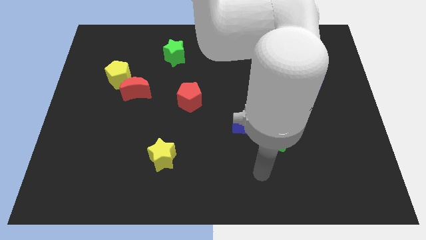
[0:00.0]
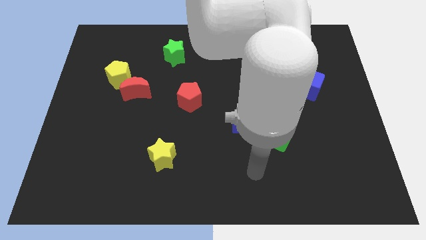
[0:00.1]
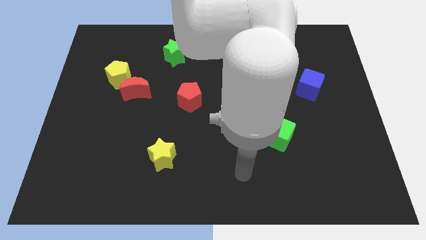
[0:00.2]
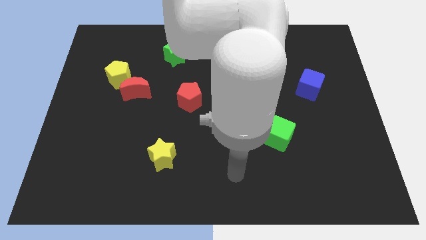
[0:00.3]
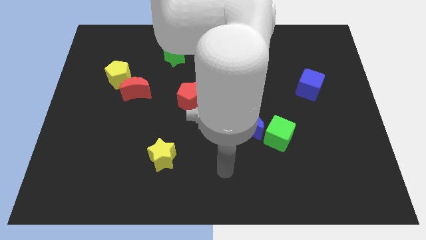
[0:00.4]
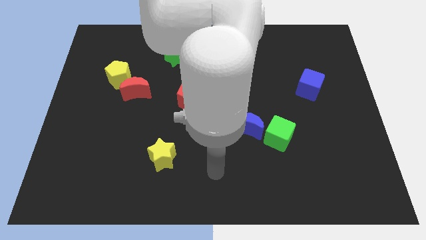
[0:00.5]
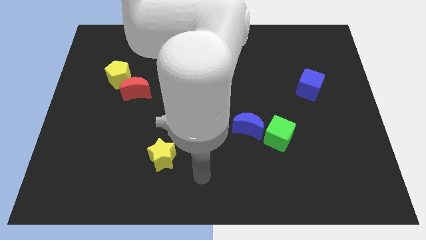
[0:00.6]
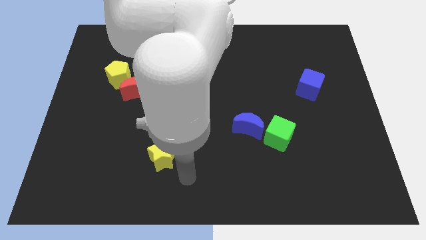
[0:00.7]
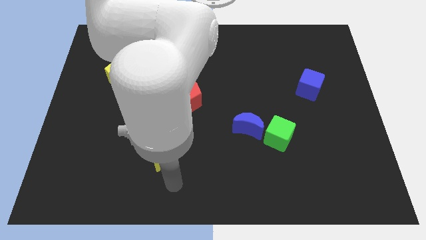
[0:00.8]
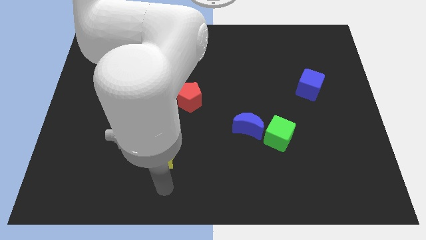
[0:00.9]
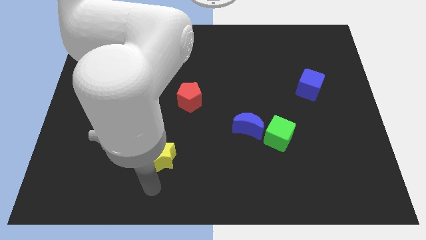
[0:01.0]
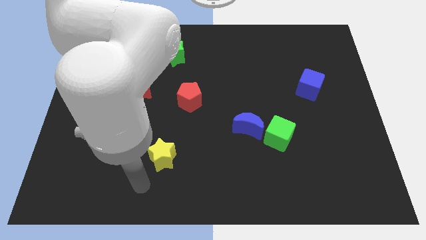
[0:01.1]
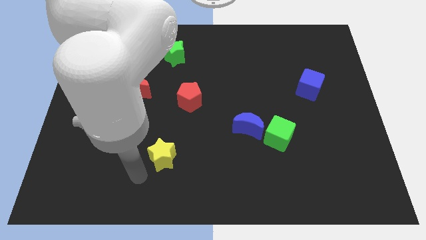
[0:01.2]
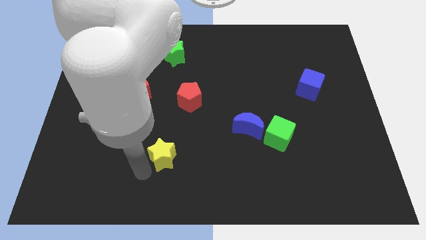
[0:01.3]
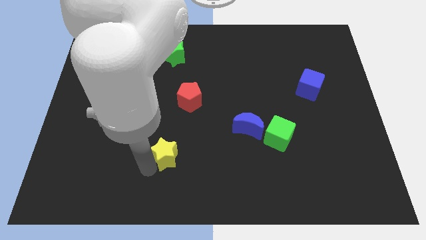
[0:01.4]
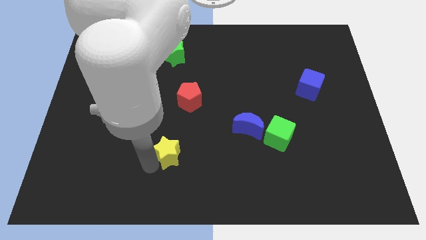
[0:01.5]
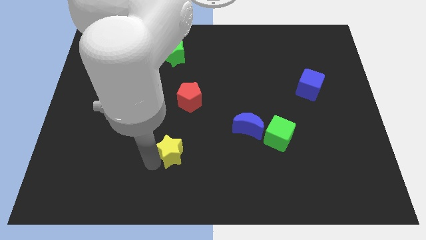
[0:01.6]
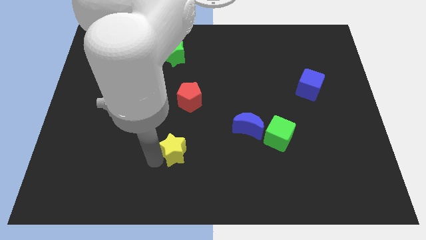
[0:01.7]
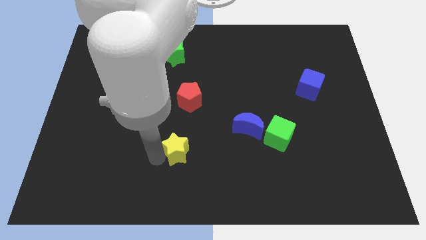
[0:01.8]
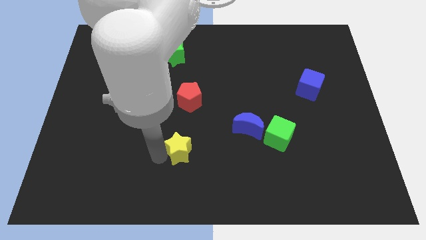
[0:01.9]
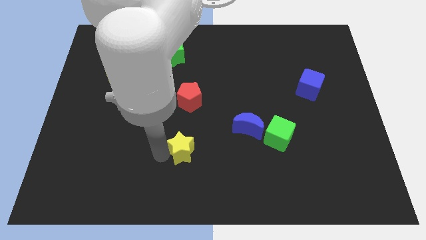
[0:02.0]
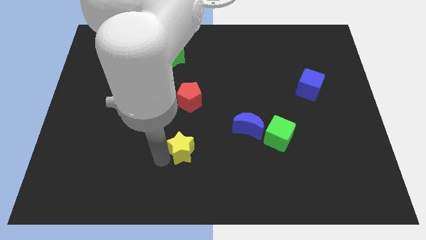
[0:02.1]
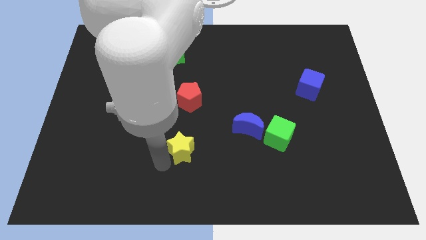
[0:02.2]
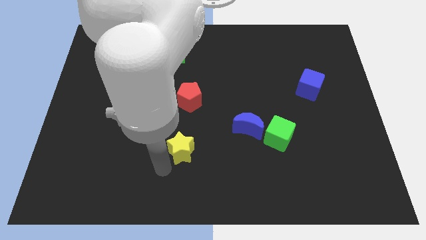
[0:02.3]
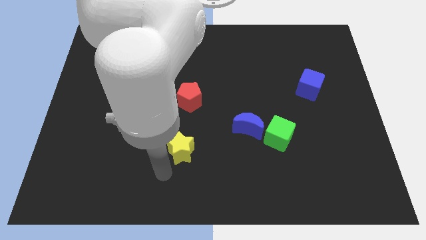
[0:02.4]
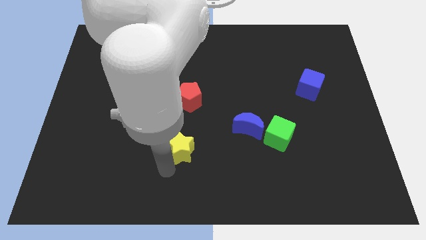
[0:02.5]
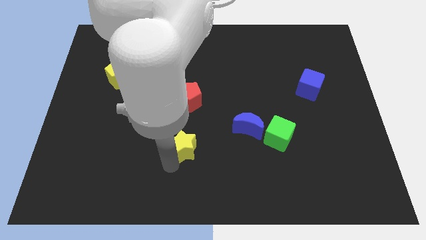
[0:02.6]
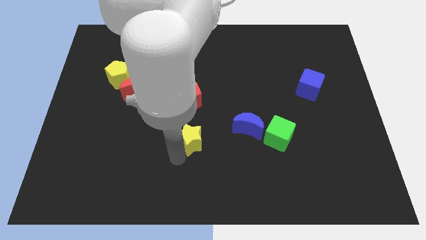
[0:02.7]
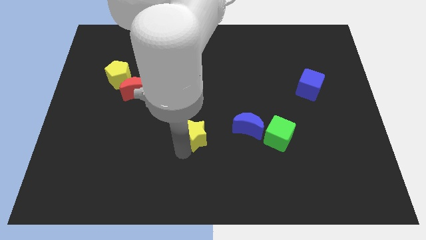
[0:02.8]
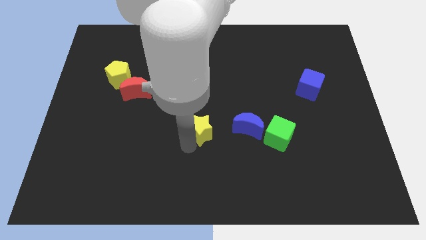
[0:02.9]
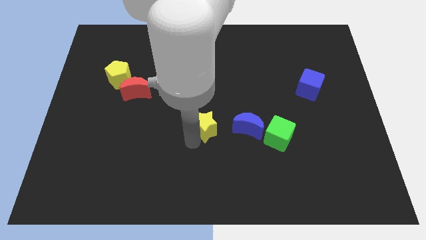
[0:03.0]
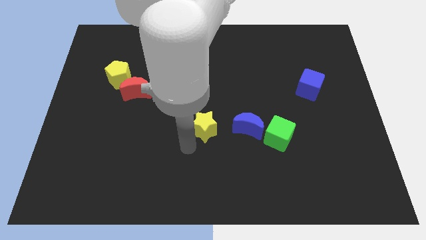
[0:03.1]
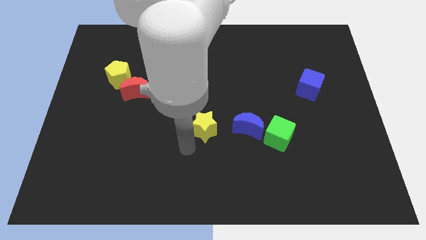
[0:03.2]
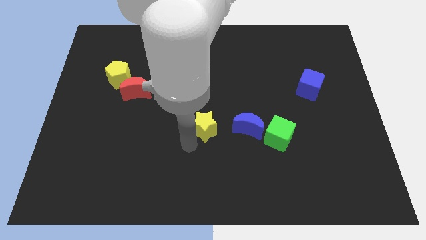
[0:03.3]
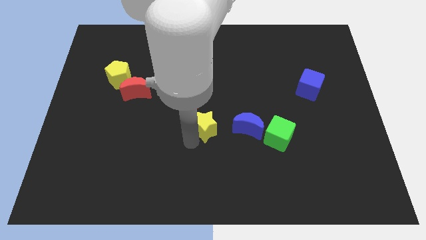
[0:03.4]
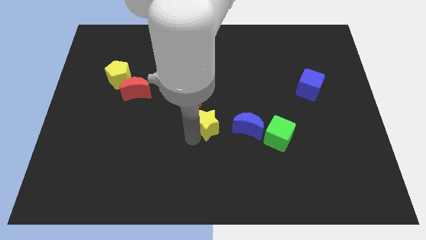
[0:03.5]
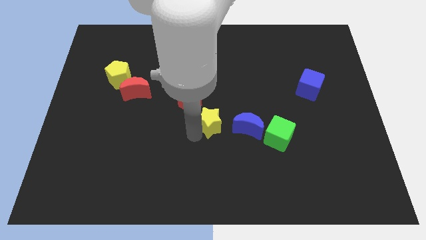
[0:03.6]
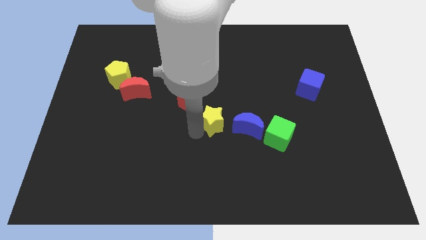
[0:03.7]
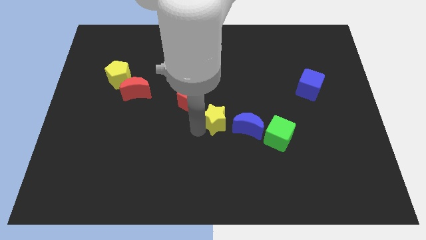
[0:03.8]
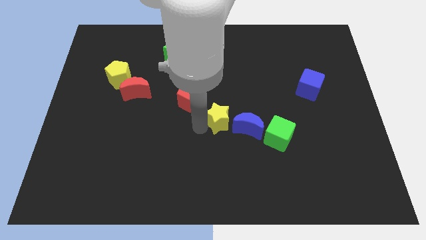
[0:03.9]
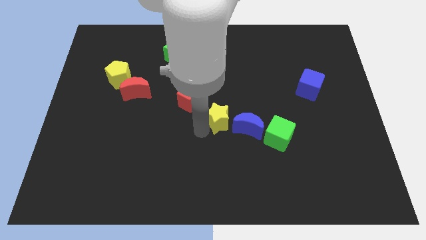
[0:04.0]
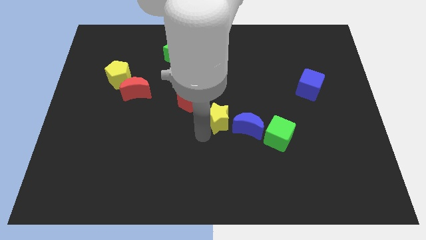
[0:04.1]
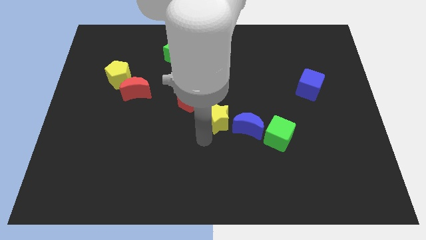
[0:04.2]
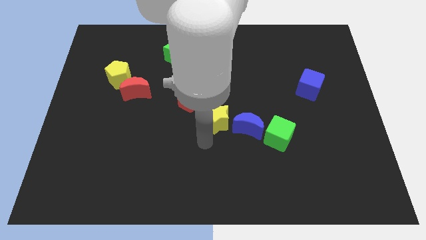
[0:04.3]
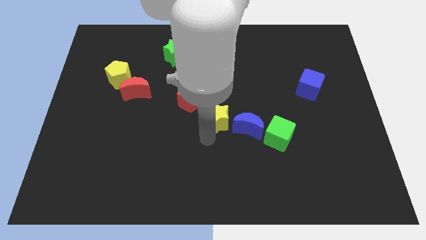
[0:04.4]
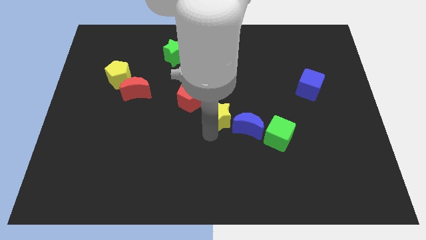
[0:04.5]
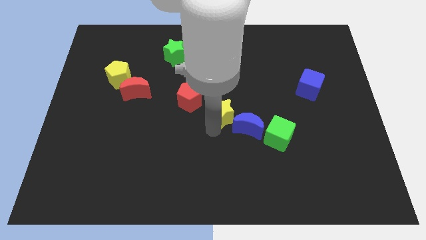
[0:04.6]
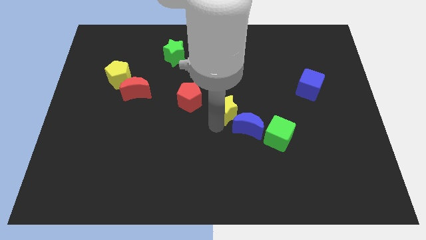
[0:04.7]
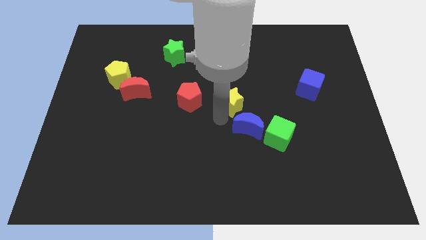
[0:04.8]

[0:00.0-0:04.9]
move the yellow star up and then to the right

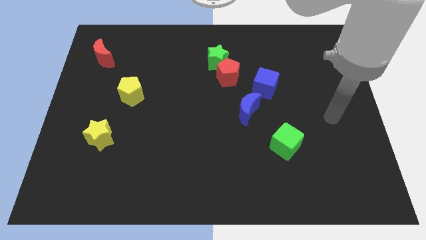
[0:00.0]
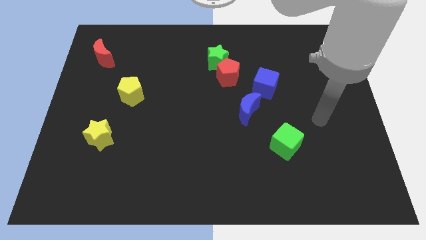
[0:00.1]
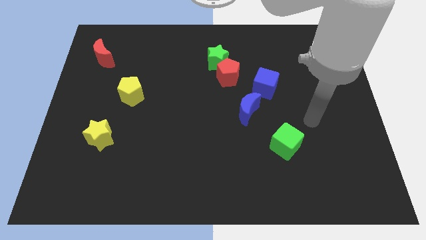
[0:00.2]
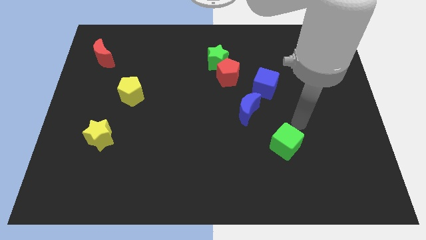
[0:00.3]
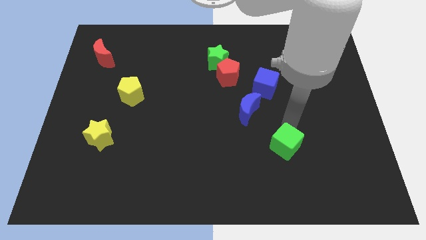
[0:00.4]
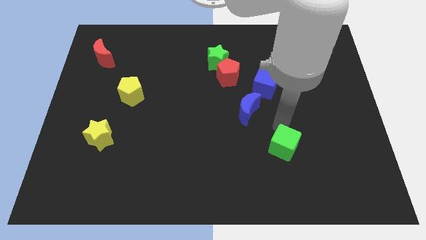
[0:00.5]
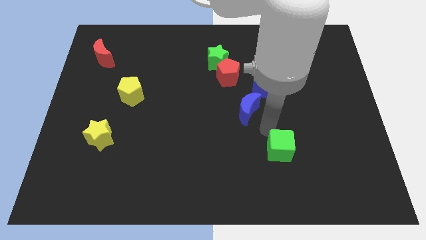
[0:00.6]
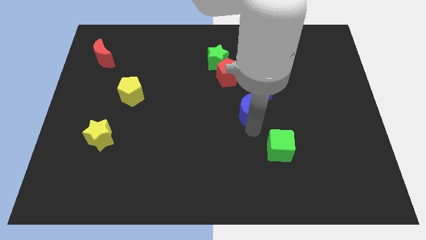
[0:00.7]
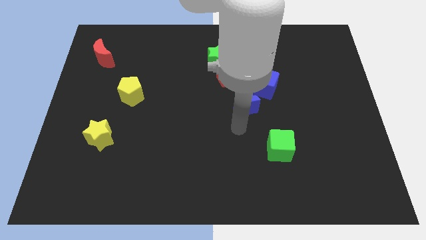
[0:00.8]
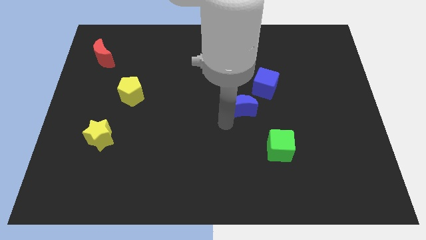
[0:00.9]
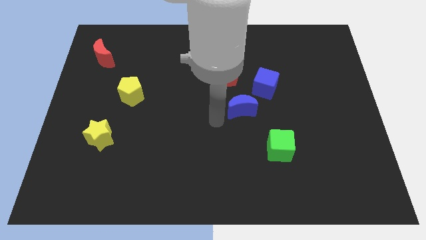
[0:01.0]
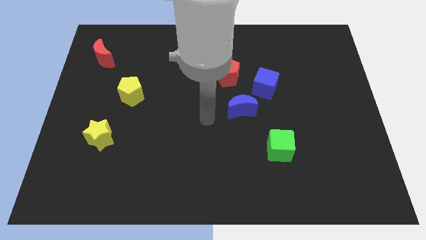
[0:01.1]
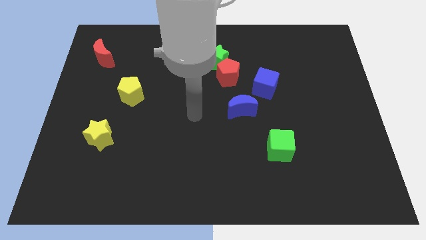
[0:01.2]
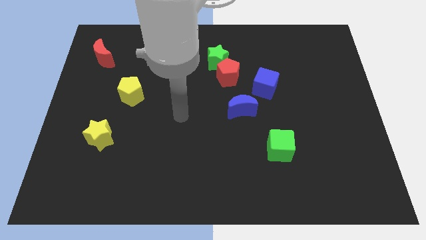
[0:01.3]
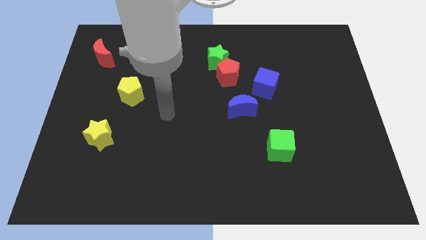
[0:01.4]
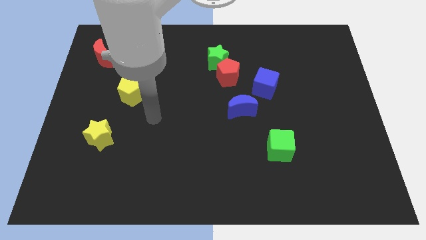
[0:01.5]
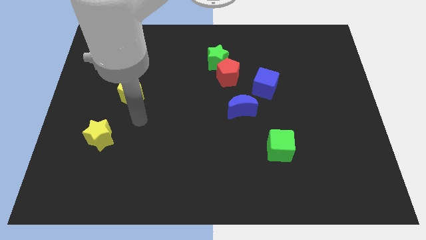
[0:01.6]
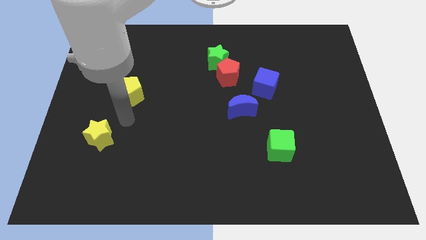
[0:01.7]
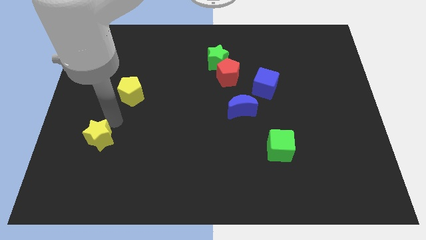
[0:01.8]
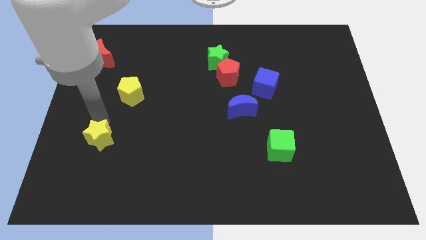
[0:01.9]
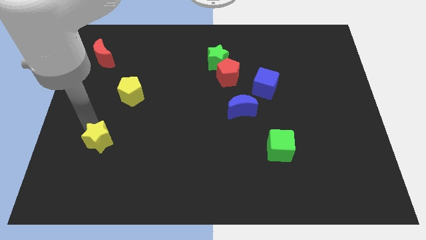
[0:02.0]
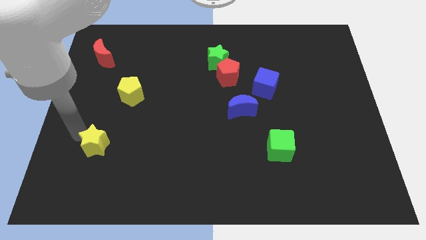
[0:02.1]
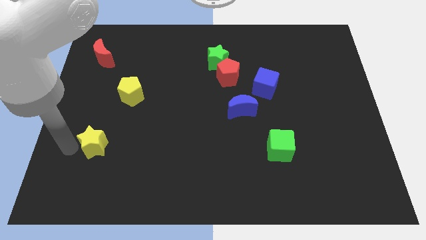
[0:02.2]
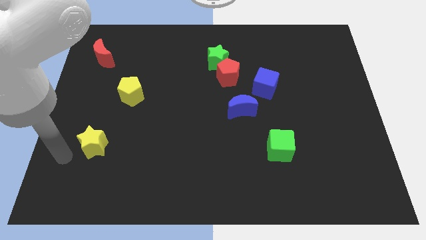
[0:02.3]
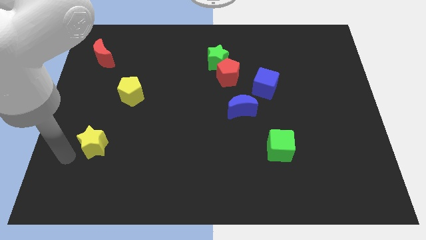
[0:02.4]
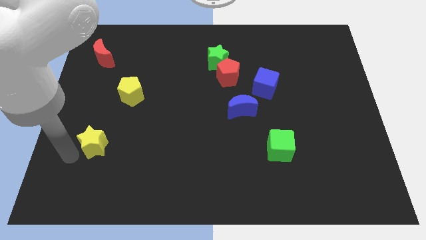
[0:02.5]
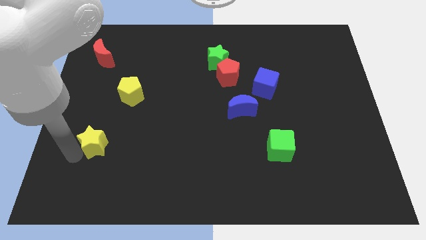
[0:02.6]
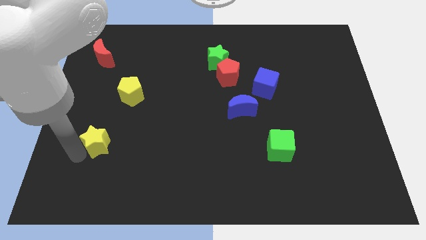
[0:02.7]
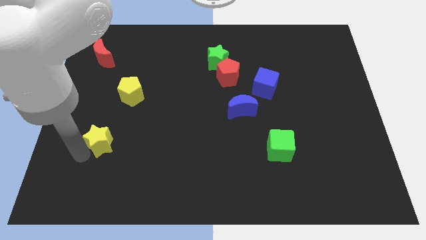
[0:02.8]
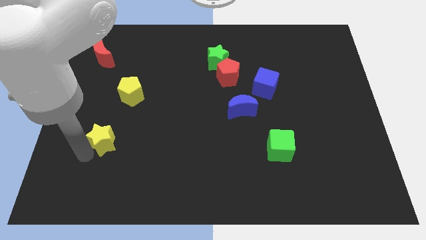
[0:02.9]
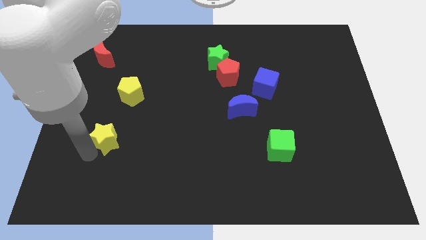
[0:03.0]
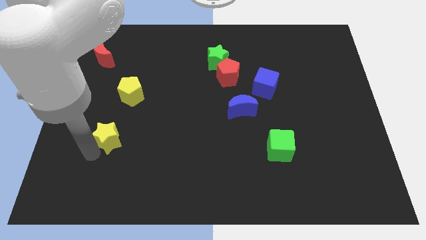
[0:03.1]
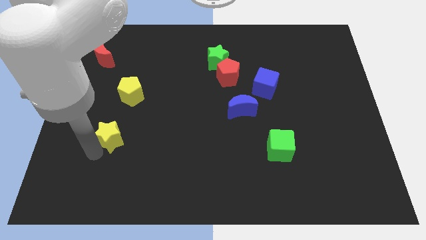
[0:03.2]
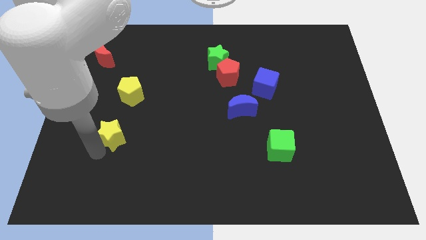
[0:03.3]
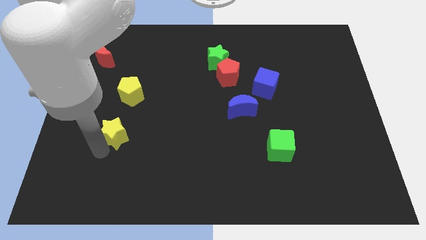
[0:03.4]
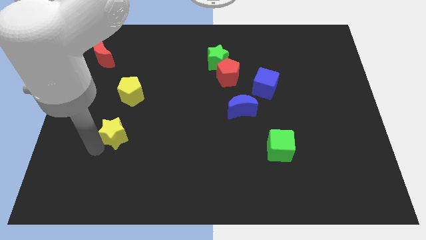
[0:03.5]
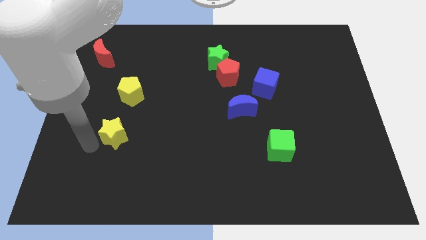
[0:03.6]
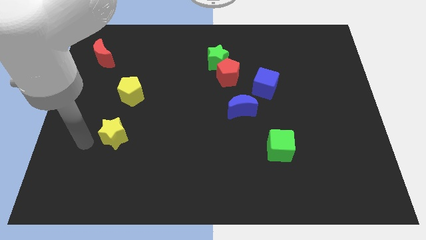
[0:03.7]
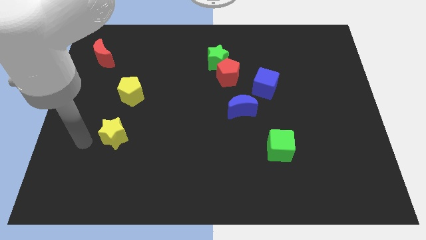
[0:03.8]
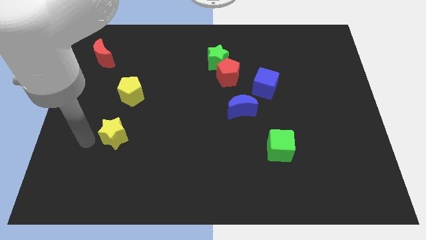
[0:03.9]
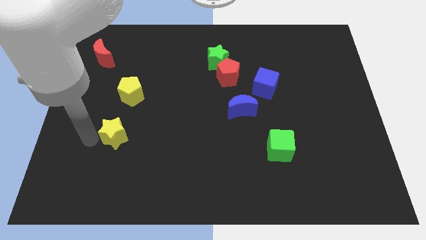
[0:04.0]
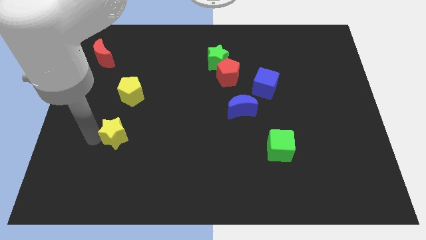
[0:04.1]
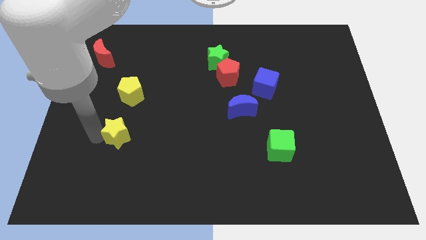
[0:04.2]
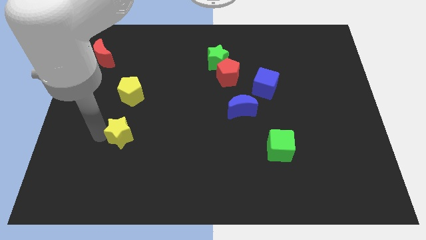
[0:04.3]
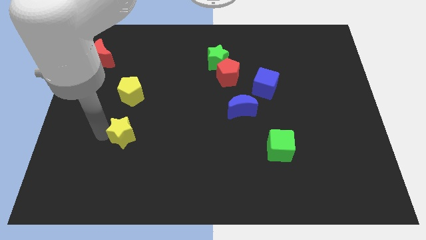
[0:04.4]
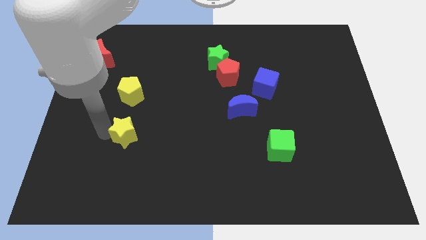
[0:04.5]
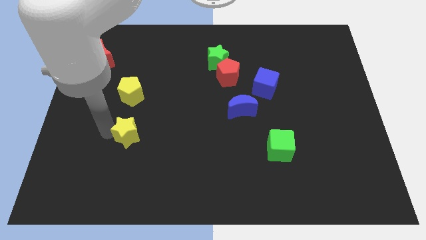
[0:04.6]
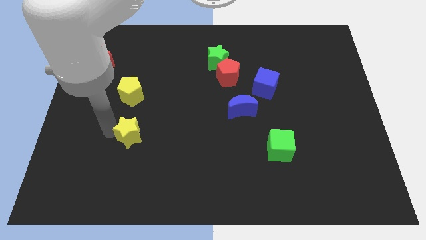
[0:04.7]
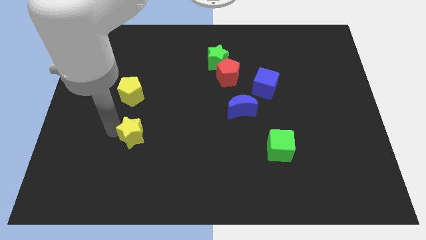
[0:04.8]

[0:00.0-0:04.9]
slide the yellow star right a little bit
